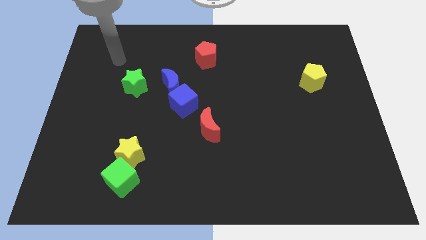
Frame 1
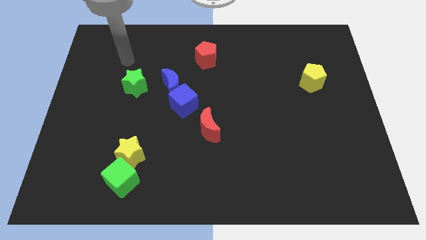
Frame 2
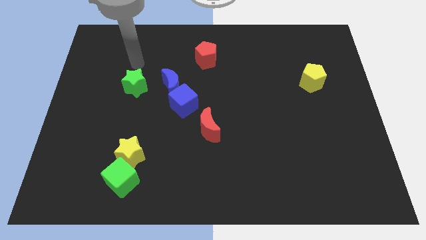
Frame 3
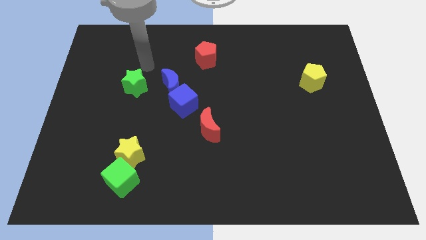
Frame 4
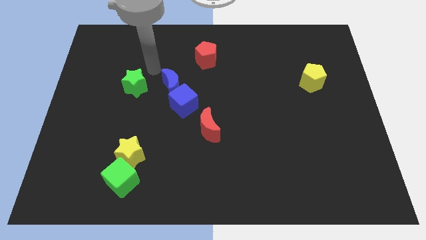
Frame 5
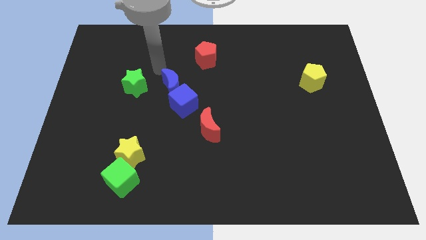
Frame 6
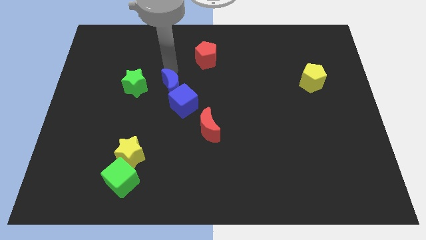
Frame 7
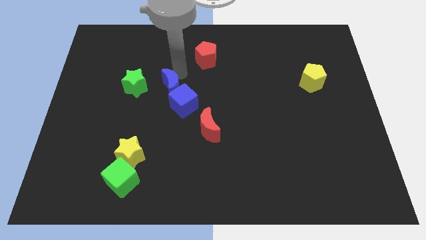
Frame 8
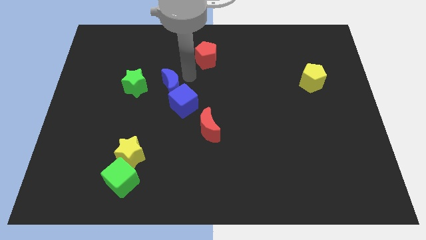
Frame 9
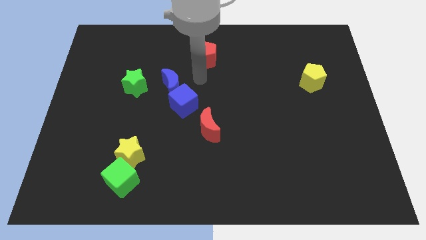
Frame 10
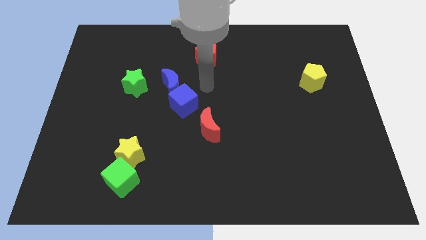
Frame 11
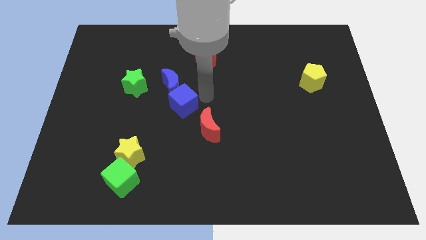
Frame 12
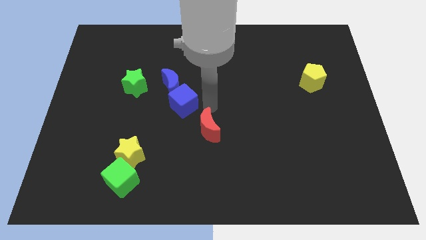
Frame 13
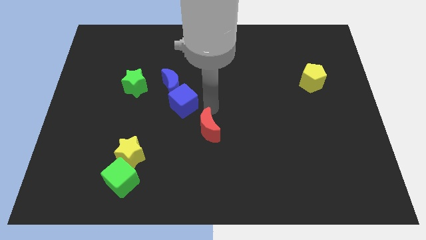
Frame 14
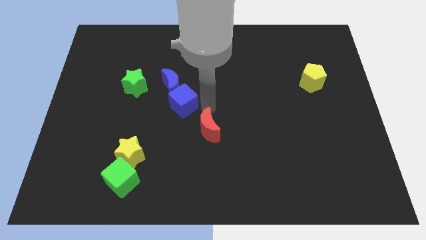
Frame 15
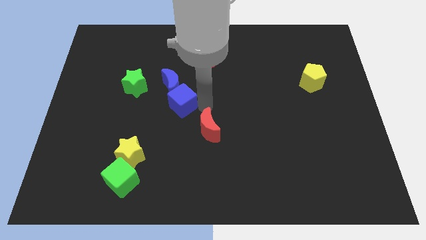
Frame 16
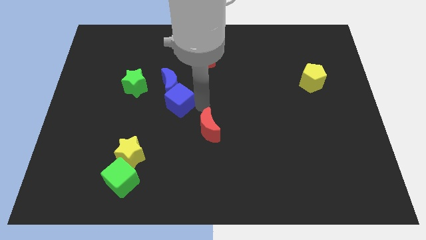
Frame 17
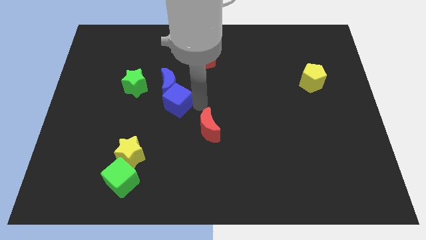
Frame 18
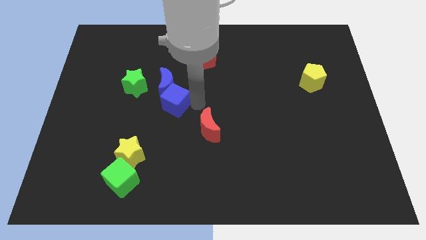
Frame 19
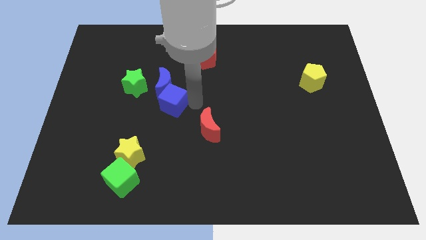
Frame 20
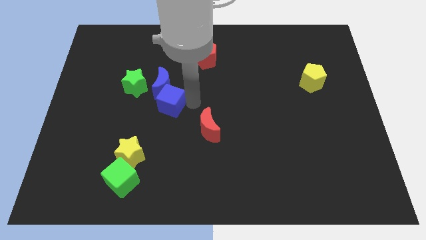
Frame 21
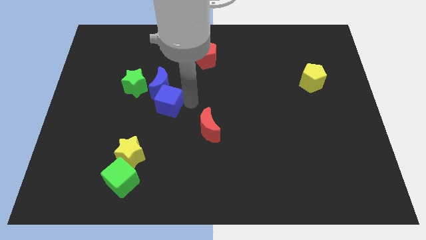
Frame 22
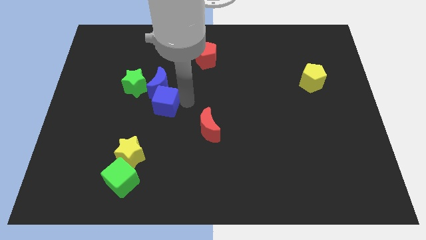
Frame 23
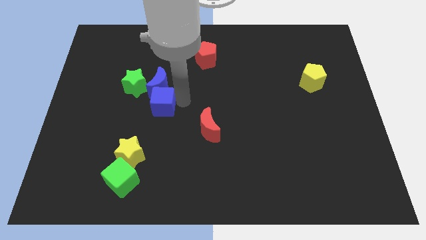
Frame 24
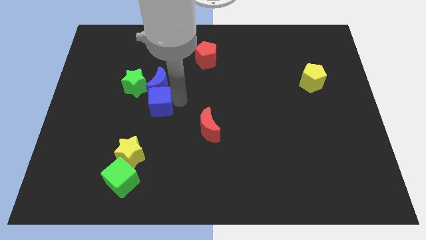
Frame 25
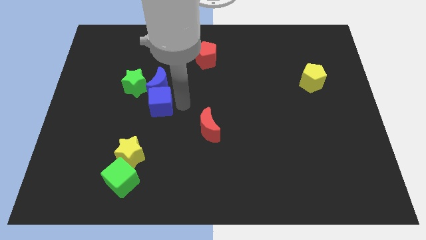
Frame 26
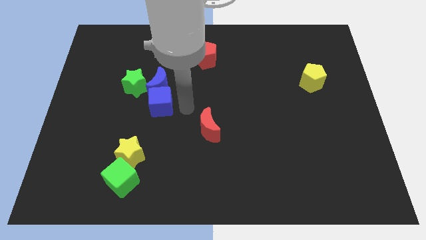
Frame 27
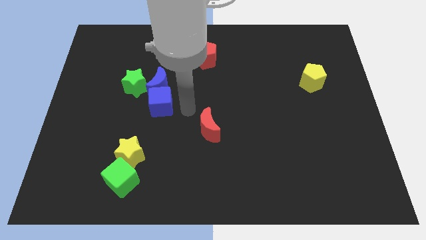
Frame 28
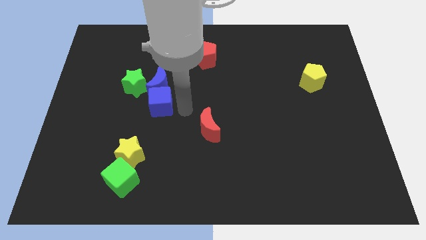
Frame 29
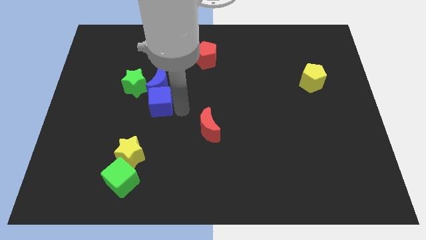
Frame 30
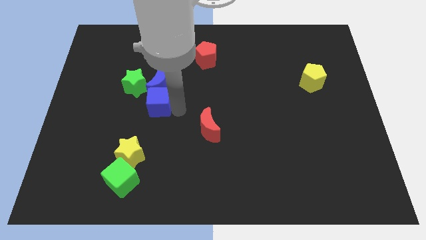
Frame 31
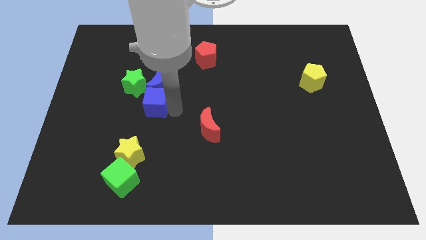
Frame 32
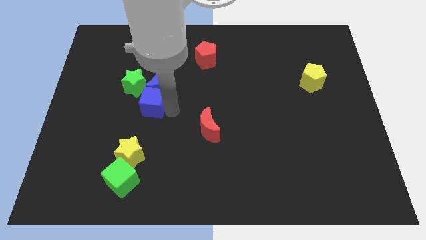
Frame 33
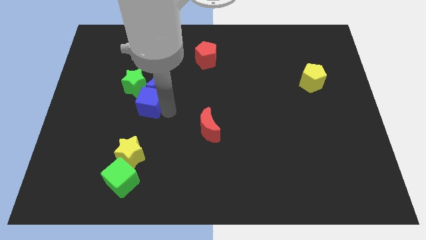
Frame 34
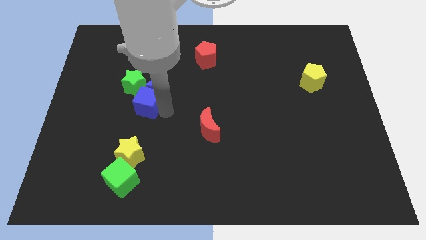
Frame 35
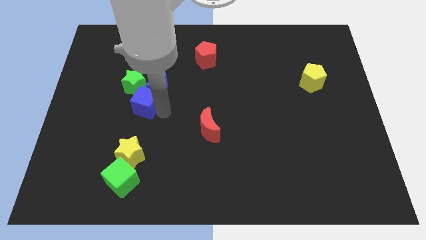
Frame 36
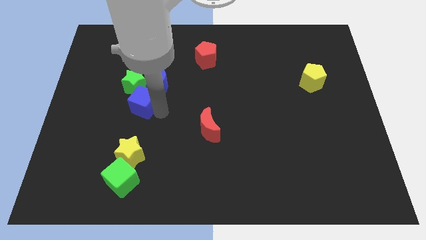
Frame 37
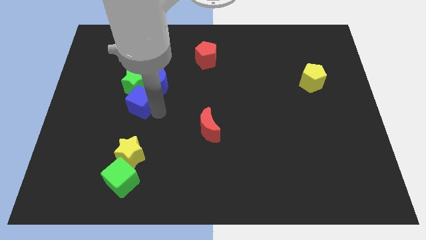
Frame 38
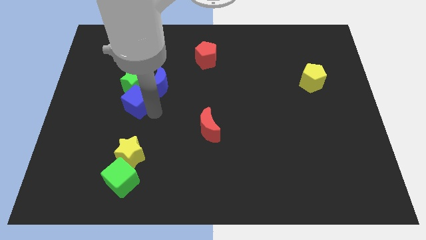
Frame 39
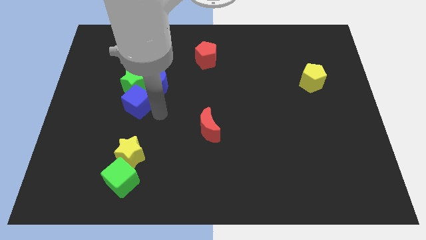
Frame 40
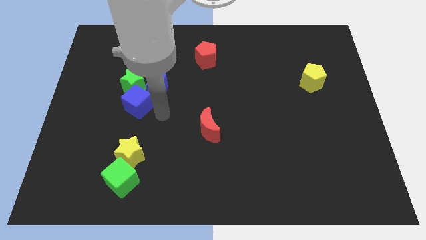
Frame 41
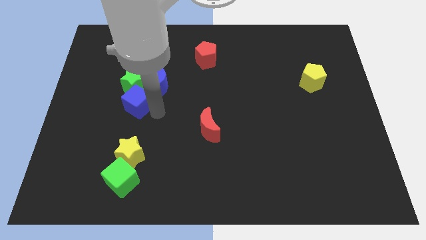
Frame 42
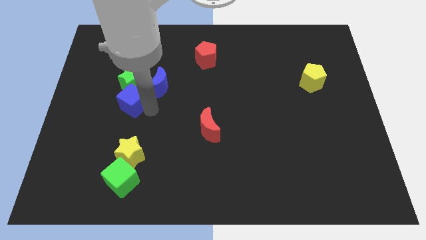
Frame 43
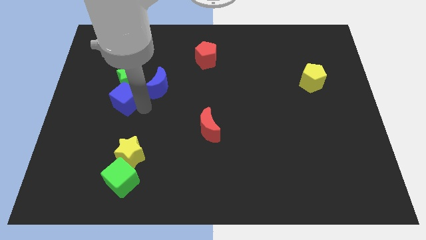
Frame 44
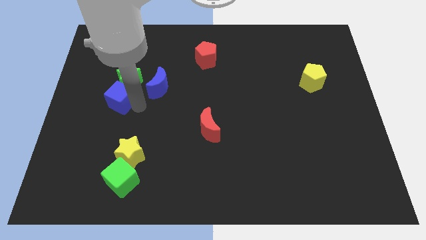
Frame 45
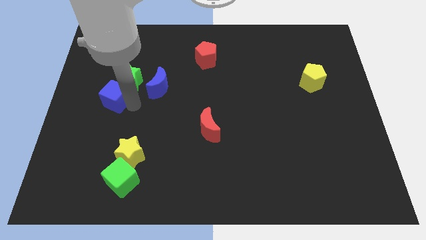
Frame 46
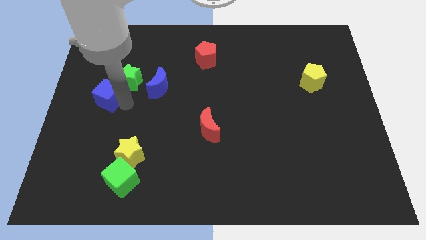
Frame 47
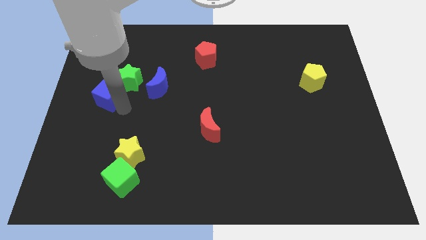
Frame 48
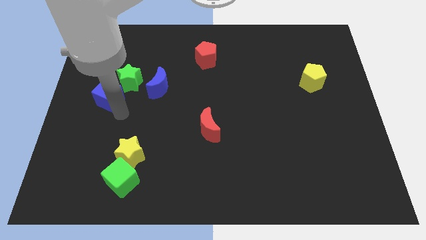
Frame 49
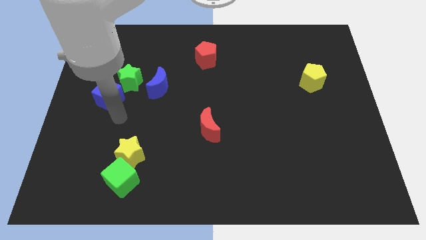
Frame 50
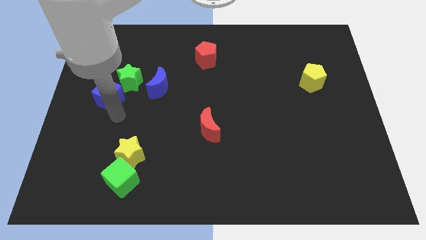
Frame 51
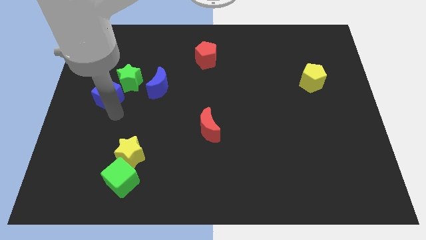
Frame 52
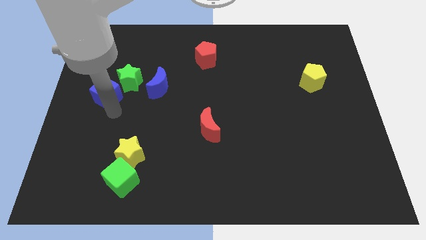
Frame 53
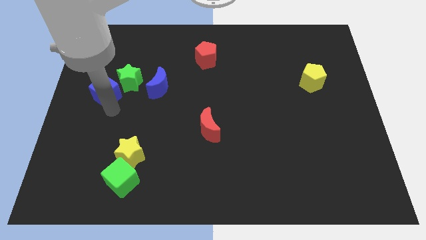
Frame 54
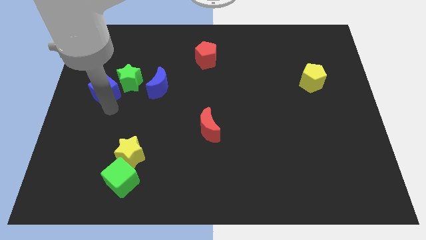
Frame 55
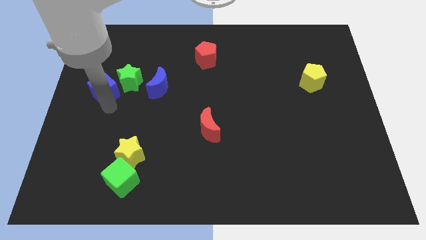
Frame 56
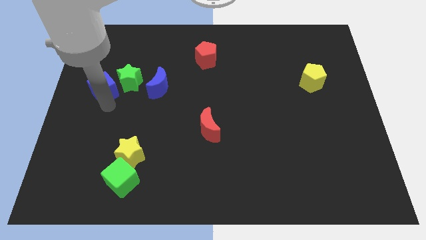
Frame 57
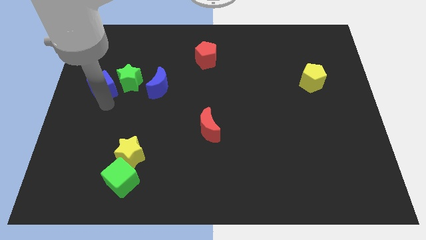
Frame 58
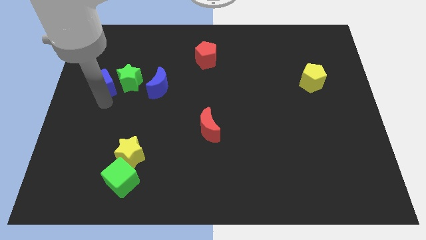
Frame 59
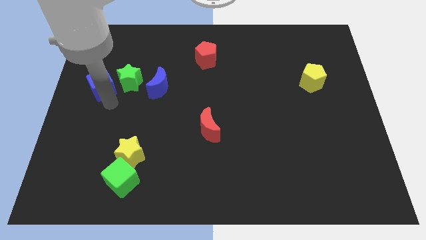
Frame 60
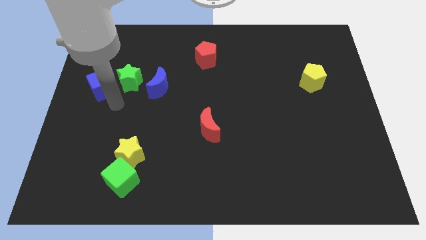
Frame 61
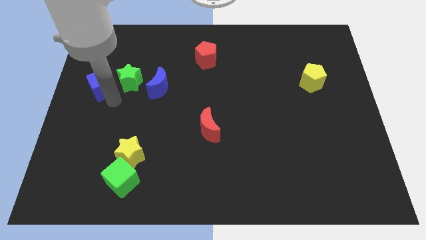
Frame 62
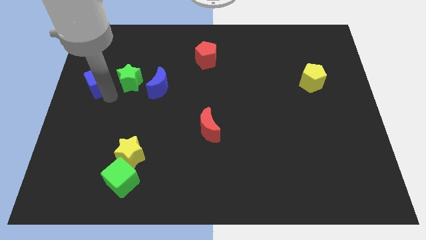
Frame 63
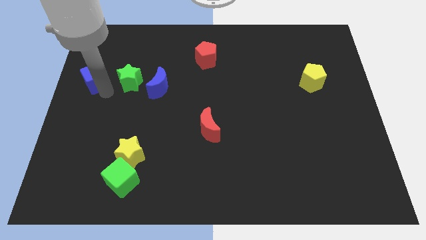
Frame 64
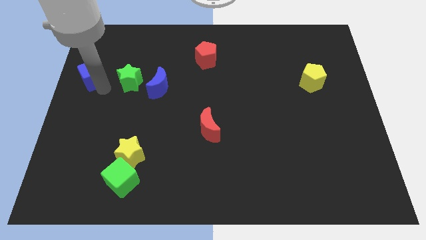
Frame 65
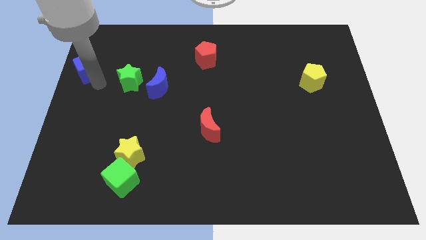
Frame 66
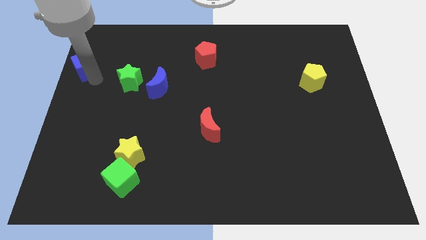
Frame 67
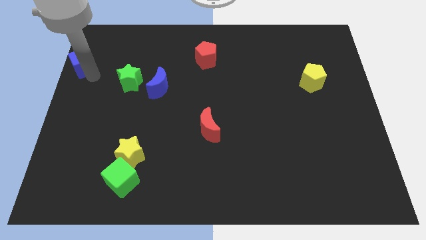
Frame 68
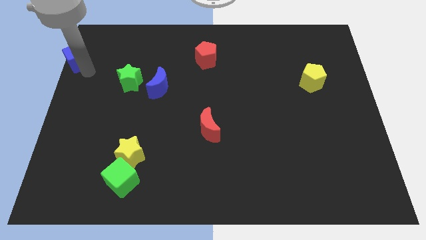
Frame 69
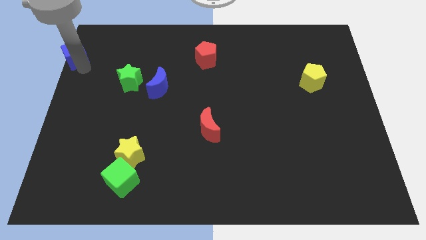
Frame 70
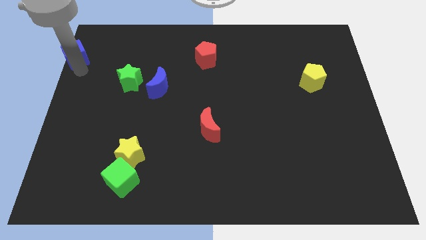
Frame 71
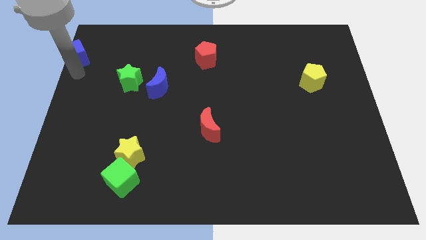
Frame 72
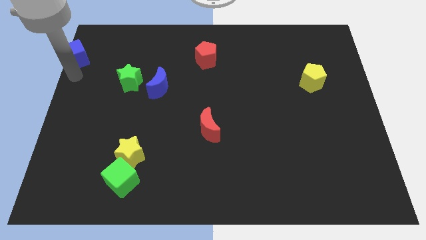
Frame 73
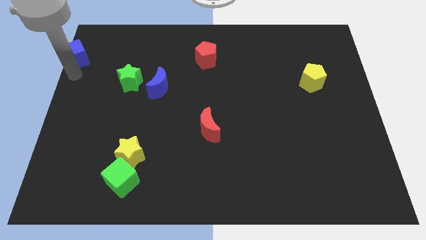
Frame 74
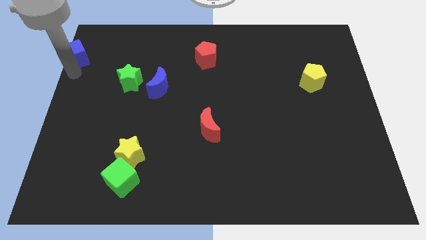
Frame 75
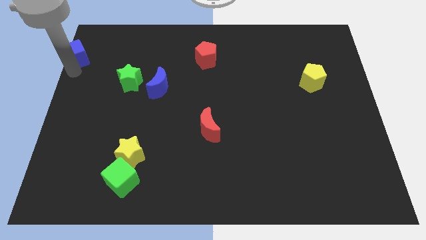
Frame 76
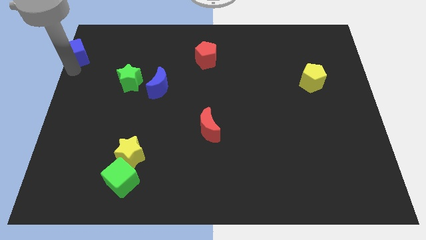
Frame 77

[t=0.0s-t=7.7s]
put the blue cube to the top left corner

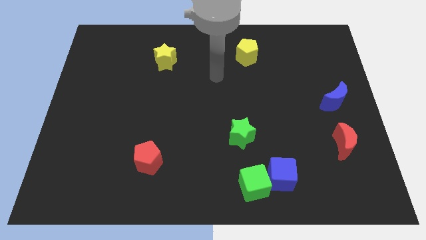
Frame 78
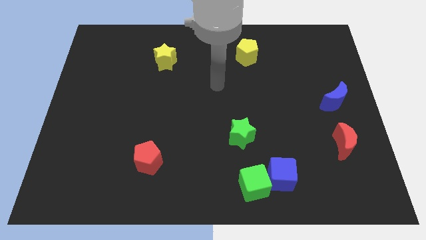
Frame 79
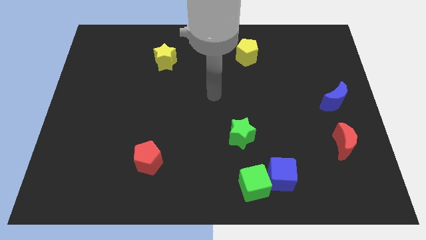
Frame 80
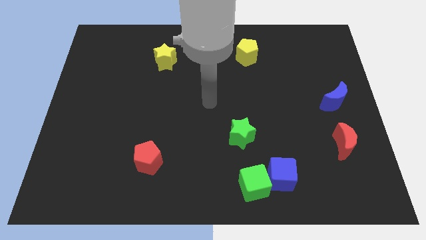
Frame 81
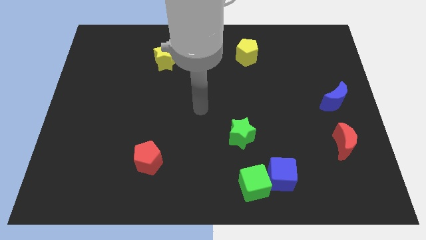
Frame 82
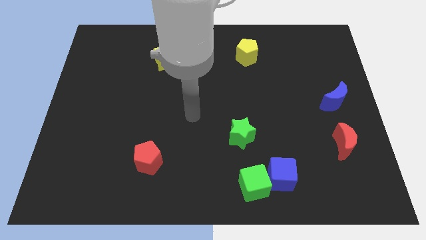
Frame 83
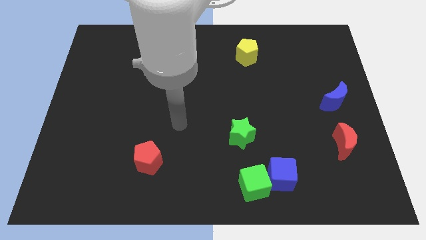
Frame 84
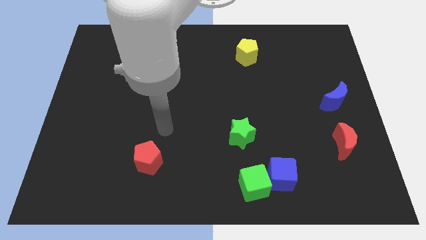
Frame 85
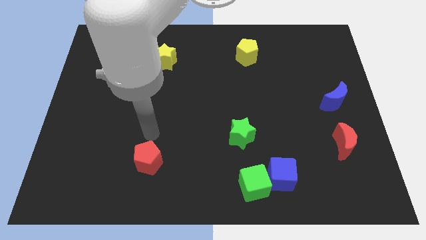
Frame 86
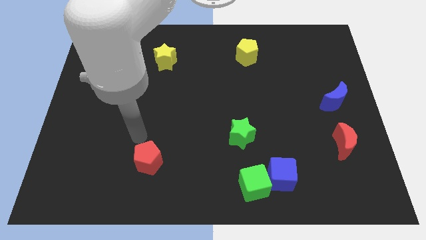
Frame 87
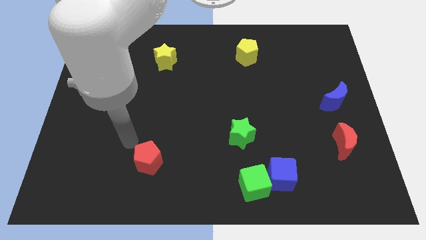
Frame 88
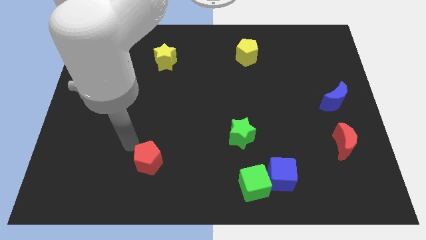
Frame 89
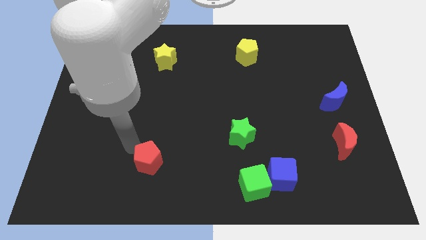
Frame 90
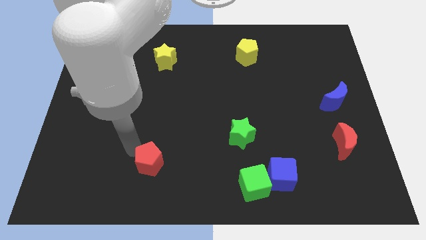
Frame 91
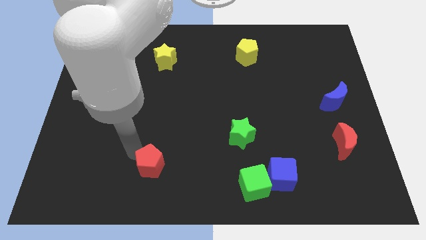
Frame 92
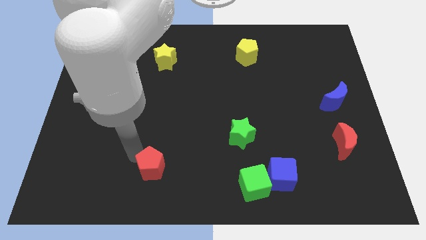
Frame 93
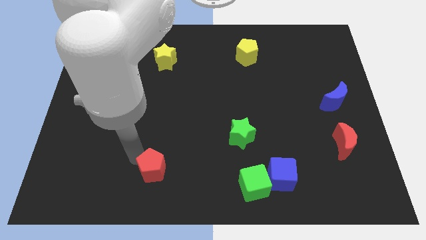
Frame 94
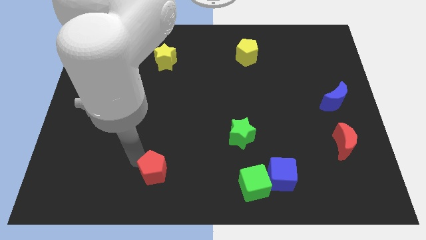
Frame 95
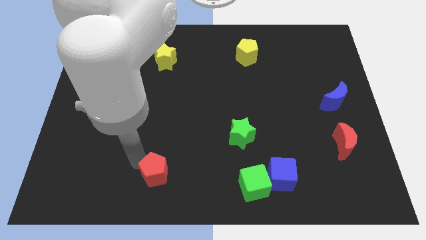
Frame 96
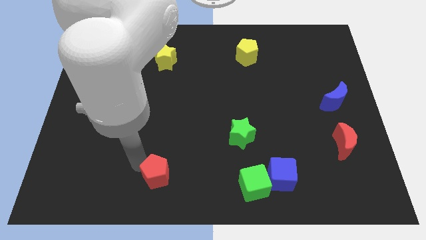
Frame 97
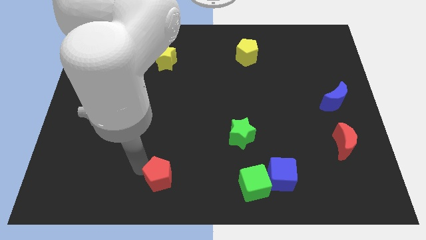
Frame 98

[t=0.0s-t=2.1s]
put the red pentagon to the bottom
